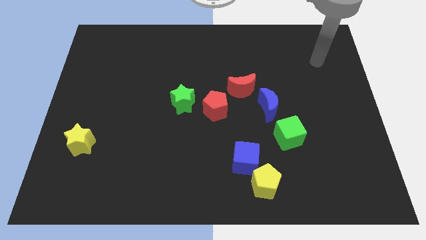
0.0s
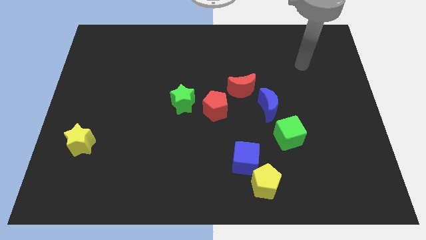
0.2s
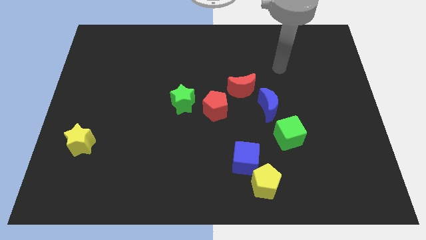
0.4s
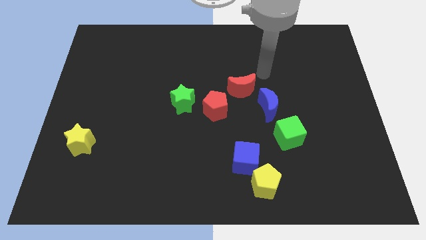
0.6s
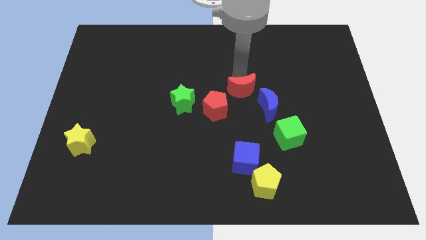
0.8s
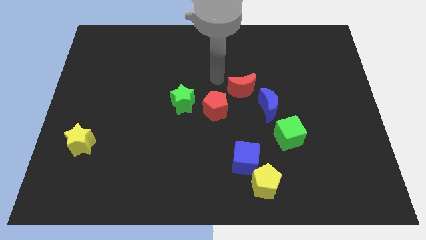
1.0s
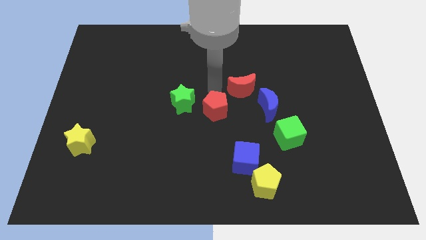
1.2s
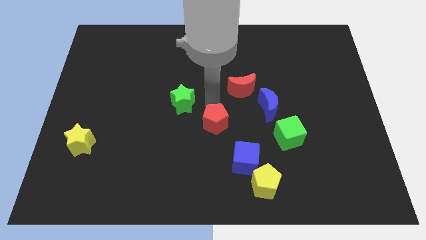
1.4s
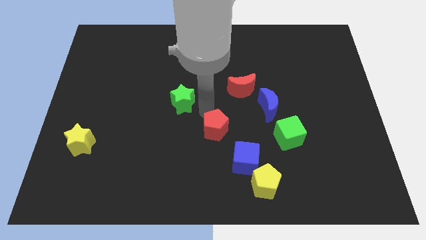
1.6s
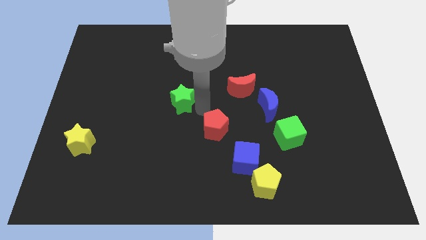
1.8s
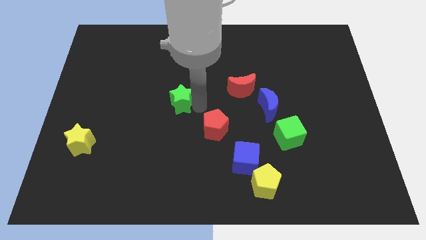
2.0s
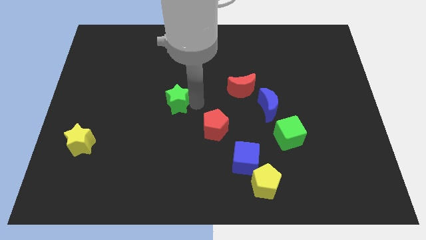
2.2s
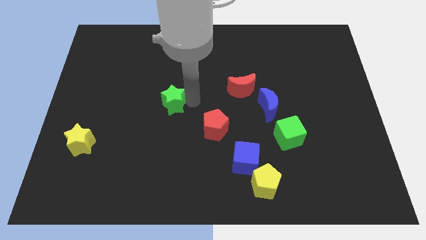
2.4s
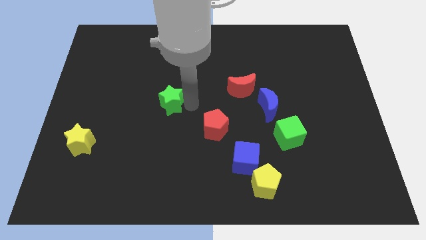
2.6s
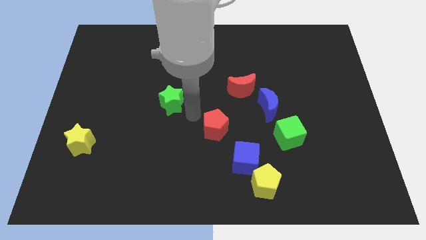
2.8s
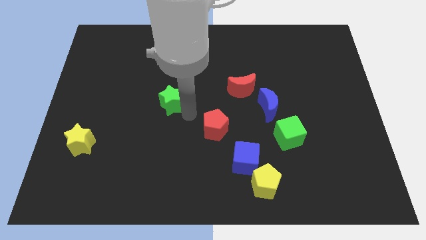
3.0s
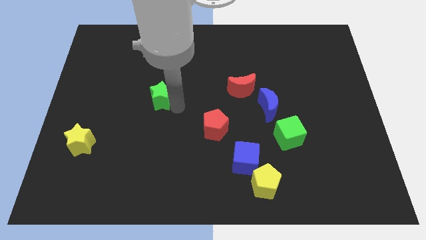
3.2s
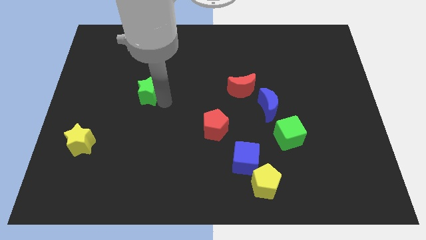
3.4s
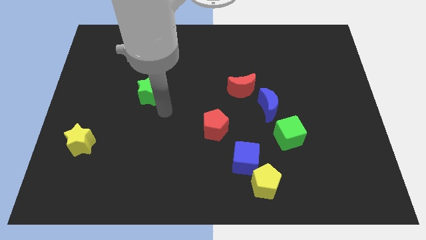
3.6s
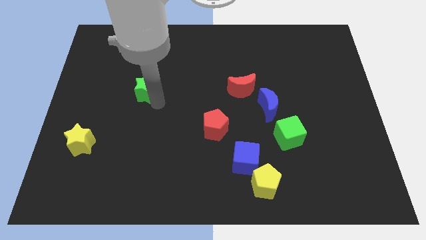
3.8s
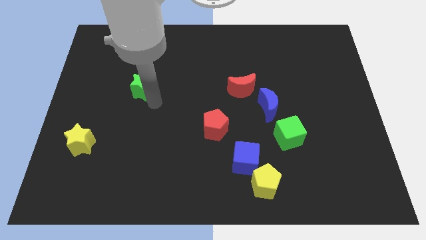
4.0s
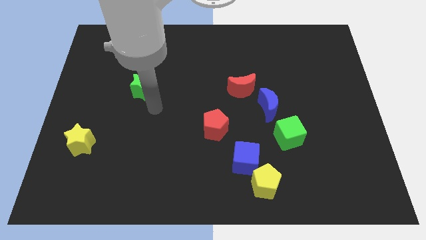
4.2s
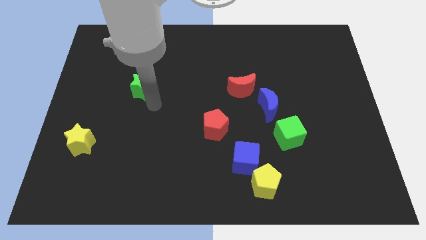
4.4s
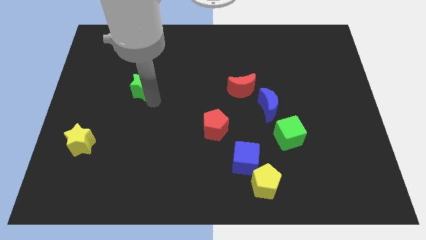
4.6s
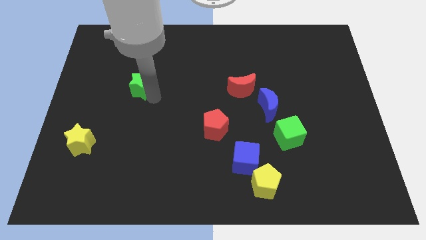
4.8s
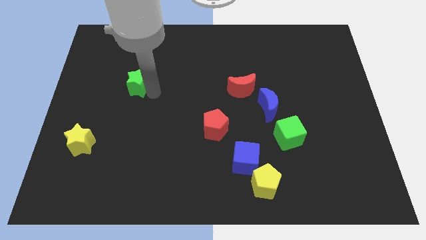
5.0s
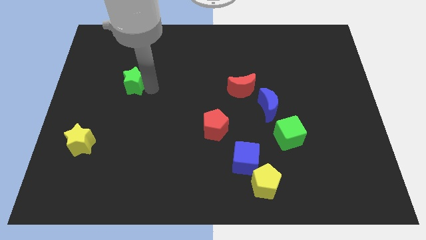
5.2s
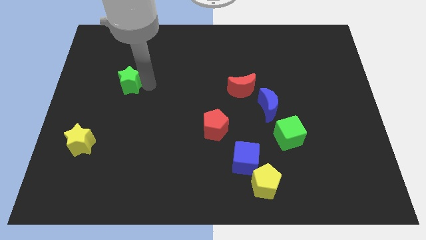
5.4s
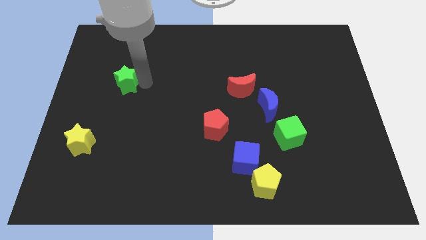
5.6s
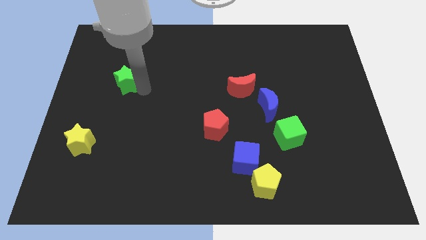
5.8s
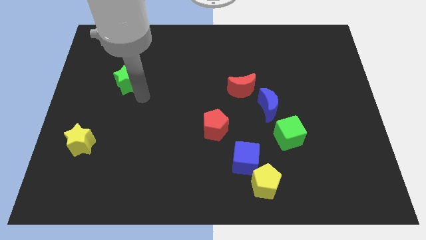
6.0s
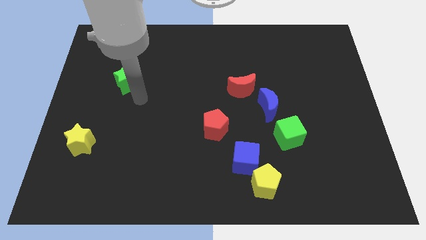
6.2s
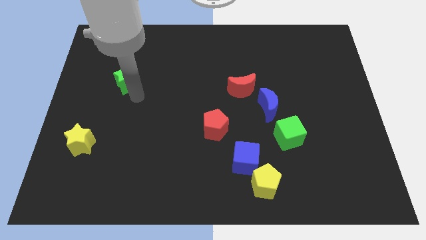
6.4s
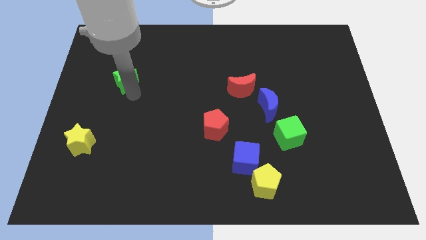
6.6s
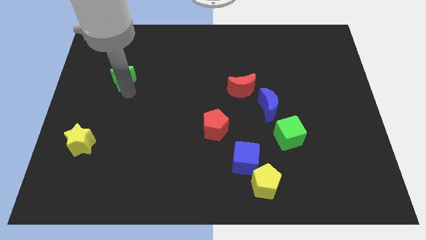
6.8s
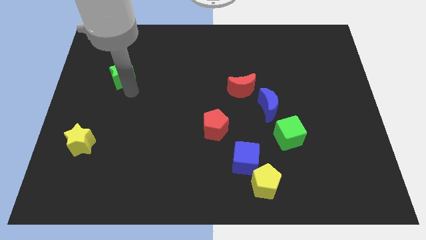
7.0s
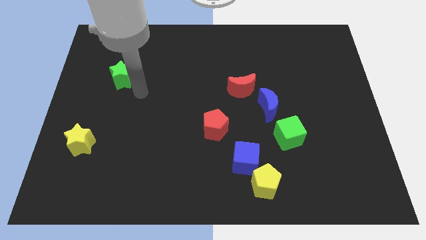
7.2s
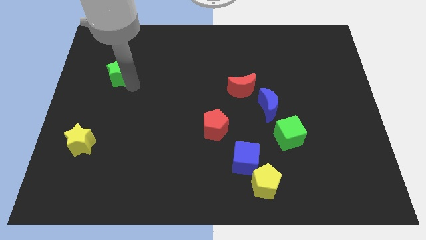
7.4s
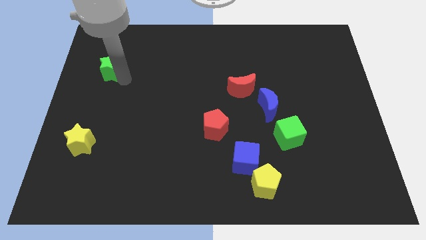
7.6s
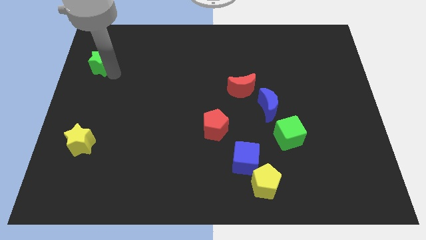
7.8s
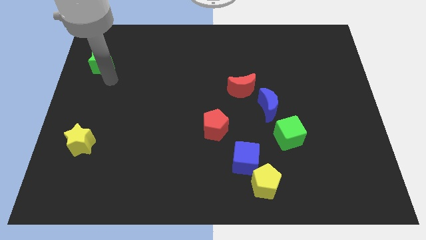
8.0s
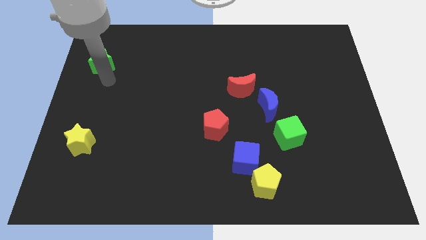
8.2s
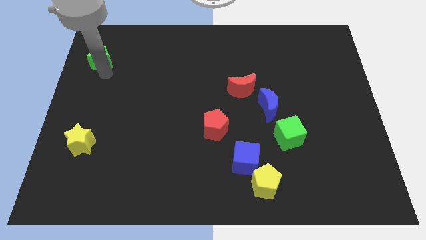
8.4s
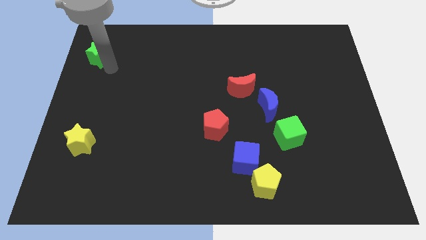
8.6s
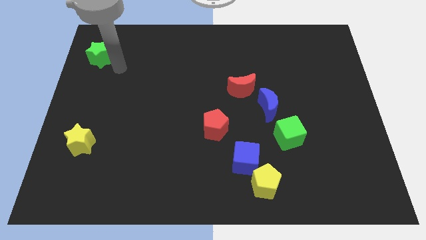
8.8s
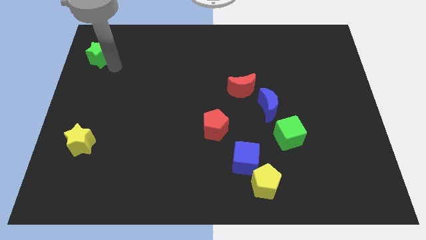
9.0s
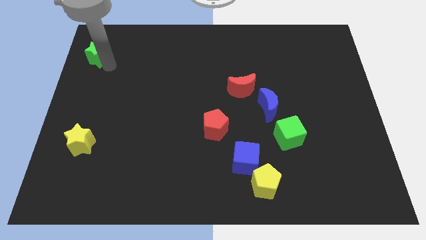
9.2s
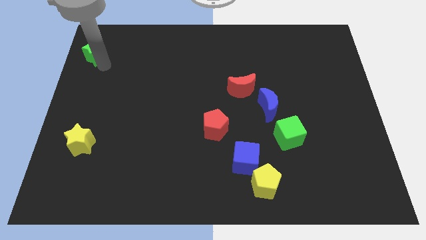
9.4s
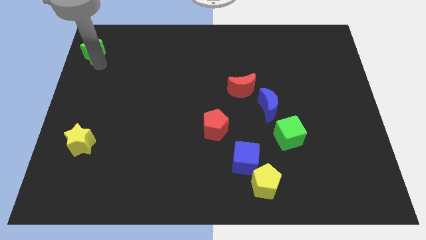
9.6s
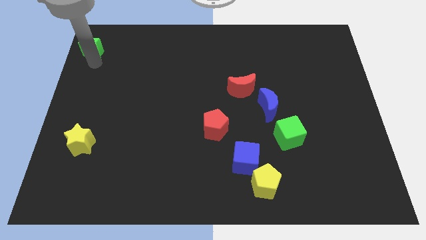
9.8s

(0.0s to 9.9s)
move the green star to the top left of the board

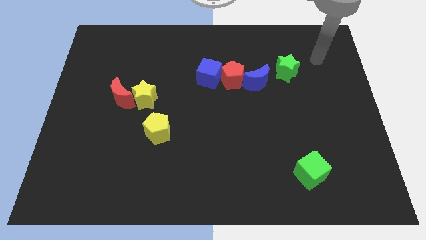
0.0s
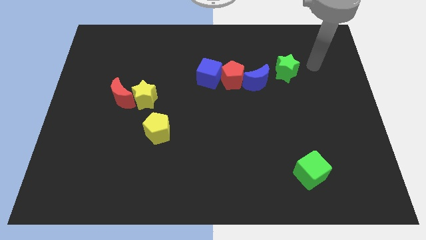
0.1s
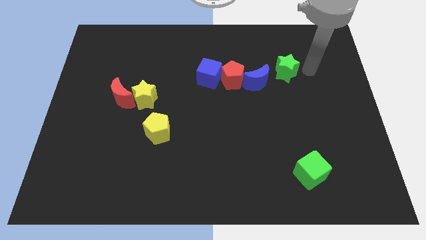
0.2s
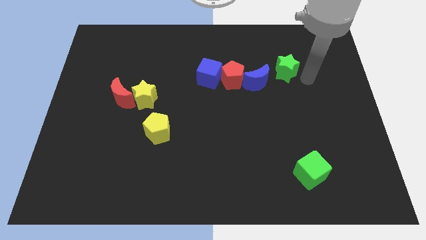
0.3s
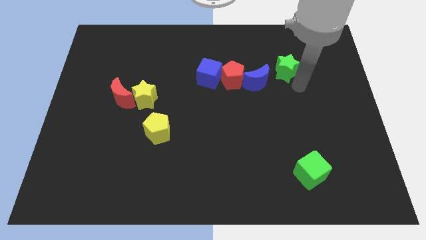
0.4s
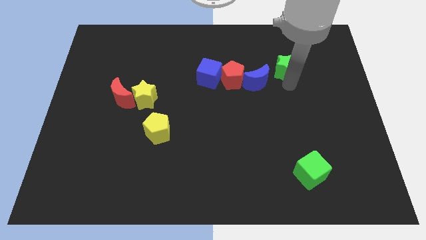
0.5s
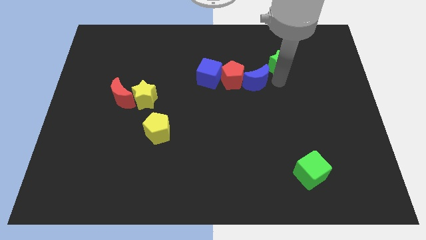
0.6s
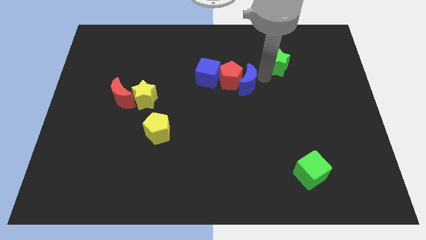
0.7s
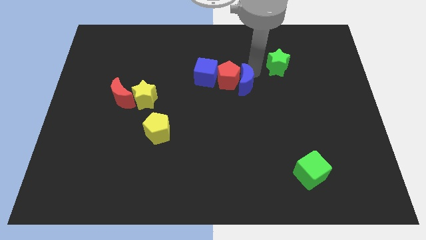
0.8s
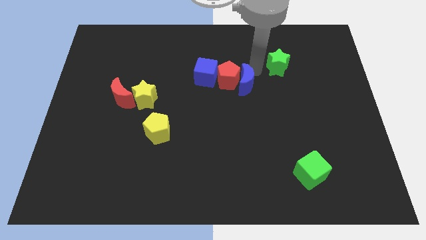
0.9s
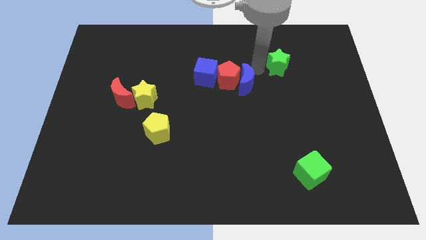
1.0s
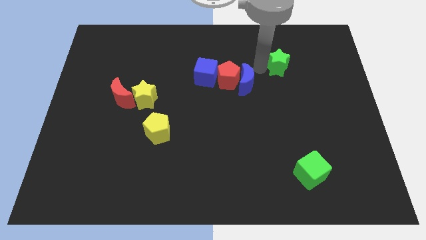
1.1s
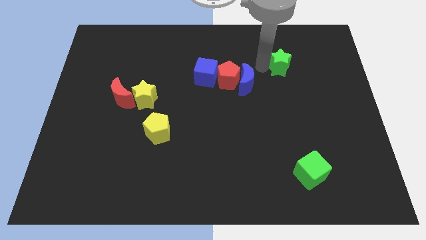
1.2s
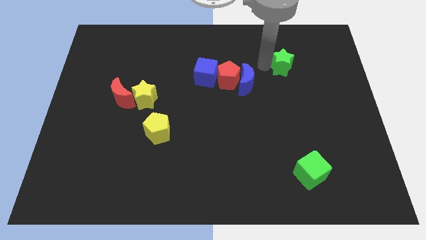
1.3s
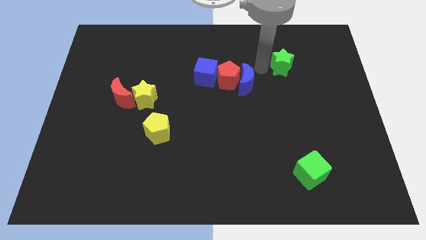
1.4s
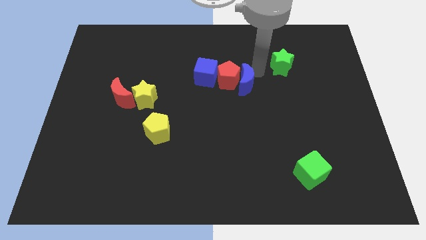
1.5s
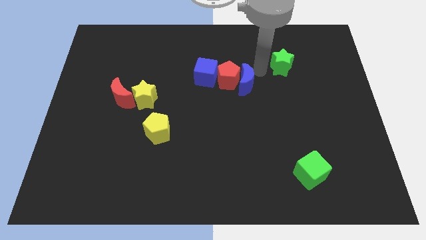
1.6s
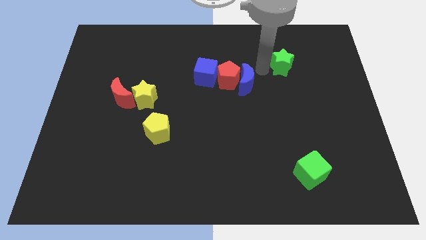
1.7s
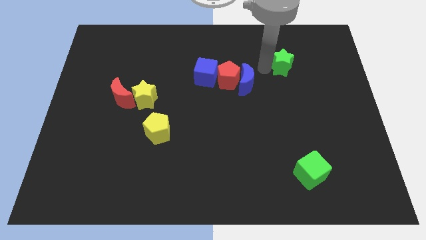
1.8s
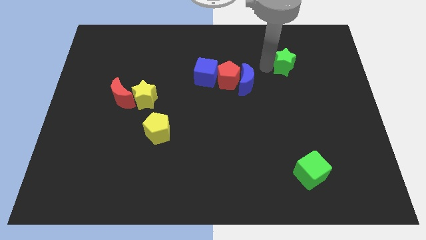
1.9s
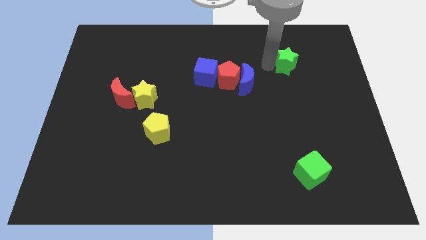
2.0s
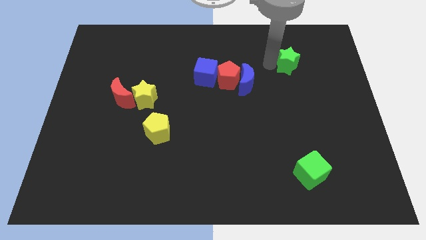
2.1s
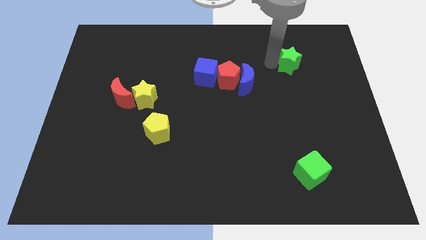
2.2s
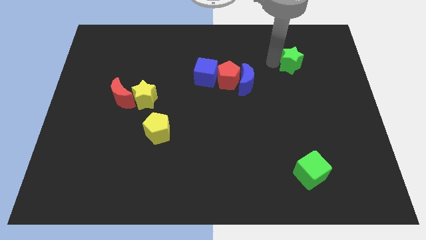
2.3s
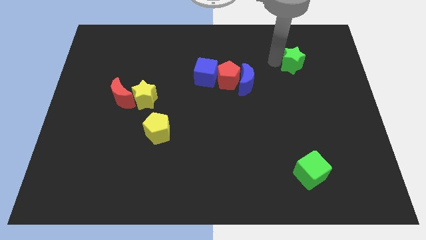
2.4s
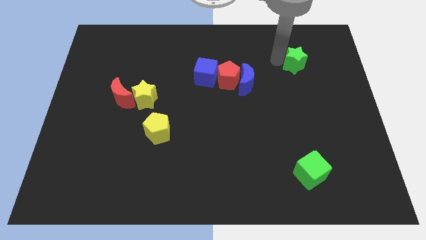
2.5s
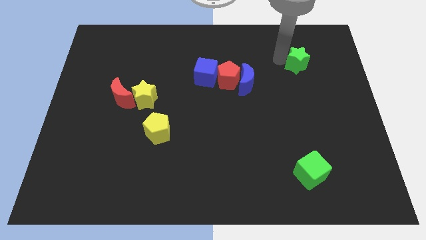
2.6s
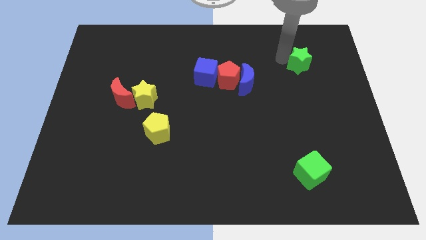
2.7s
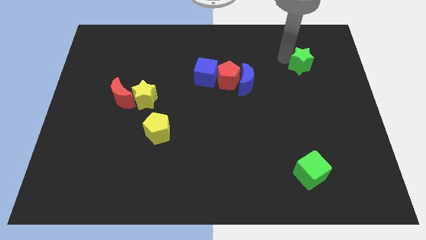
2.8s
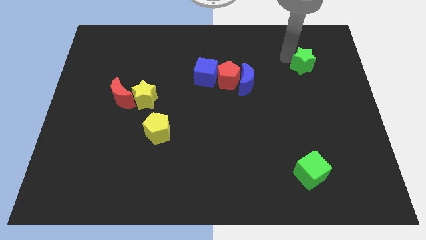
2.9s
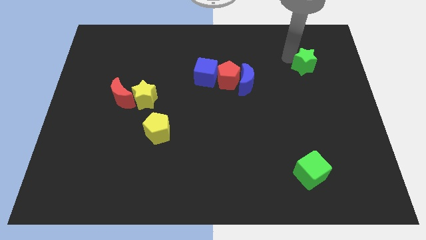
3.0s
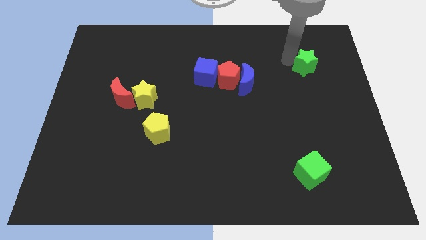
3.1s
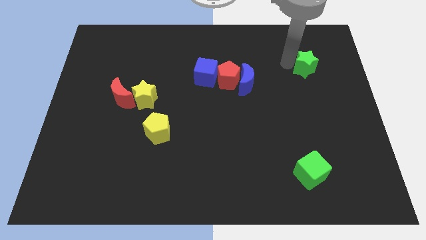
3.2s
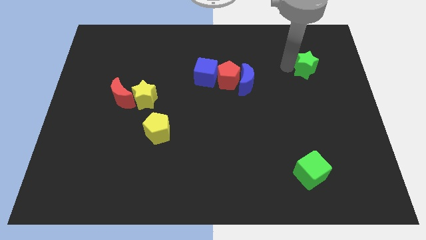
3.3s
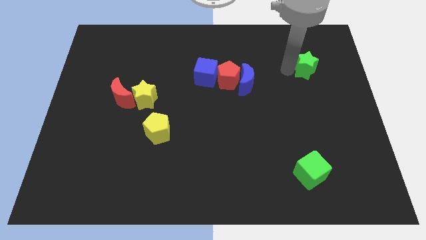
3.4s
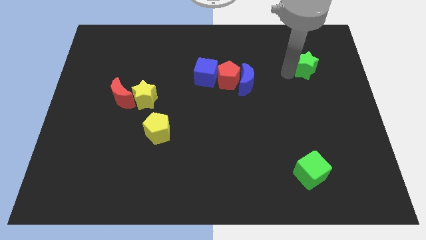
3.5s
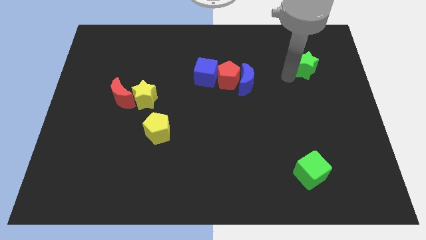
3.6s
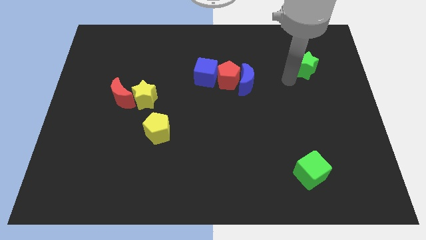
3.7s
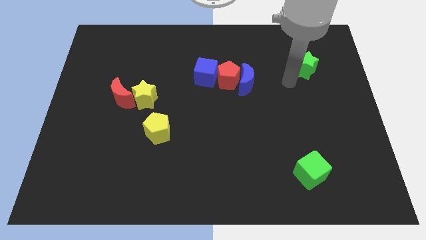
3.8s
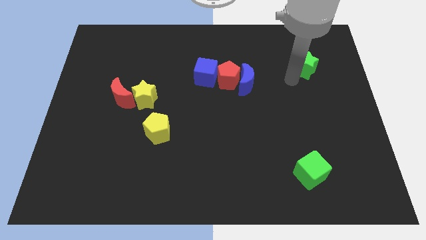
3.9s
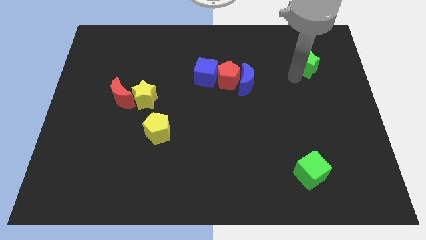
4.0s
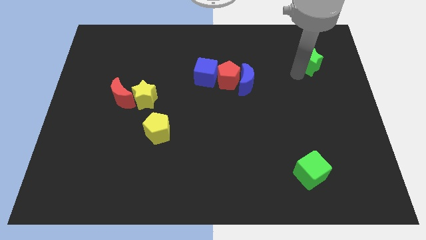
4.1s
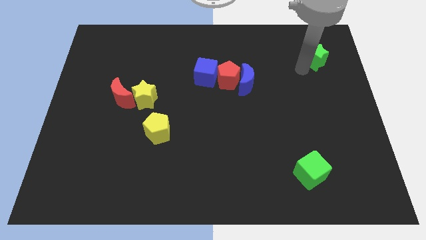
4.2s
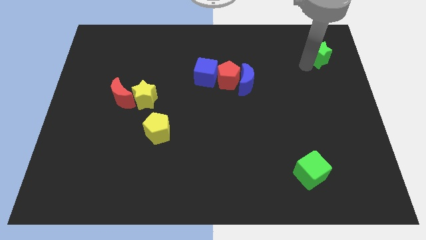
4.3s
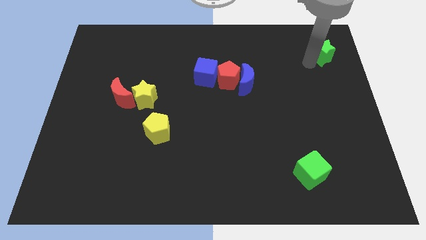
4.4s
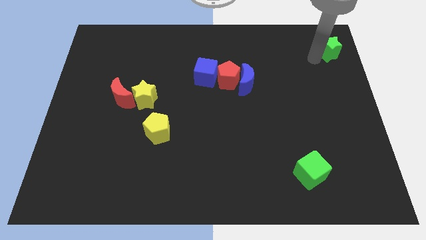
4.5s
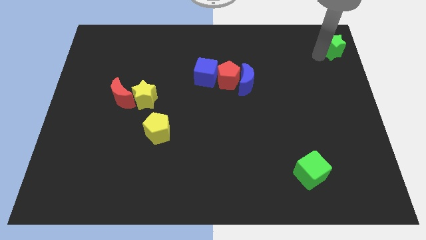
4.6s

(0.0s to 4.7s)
move the green star to the top right of the board
